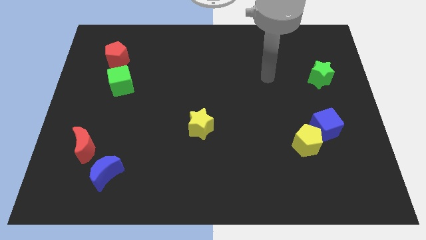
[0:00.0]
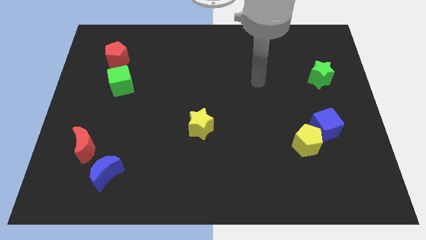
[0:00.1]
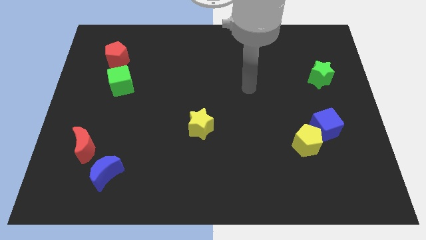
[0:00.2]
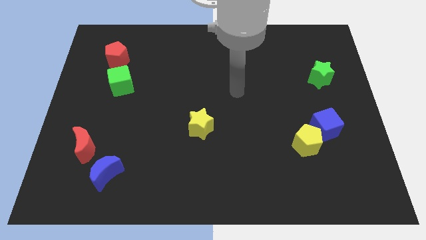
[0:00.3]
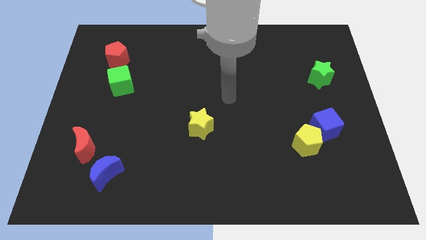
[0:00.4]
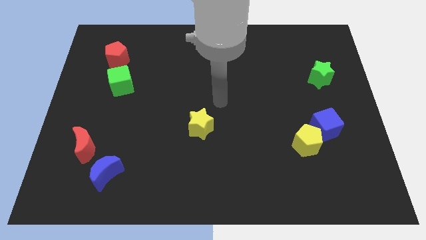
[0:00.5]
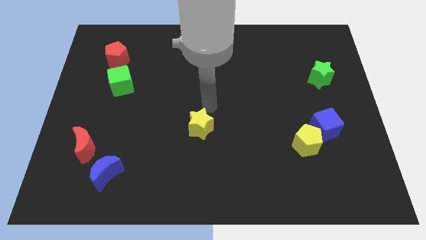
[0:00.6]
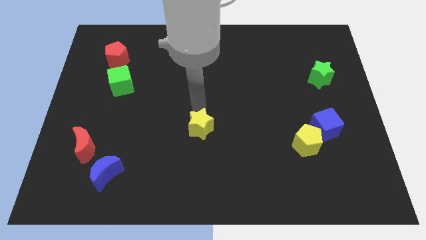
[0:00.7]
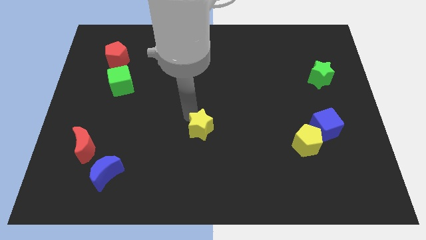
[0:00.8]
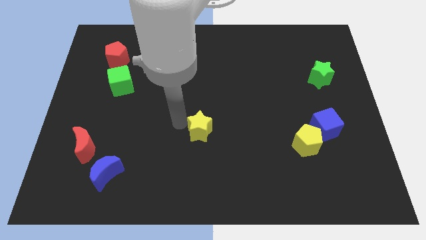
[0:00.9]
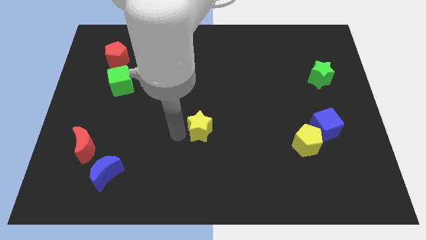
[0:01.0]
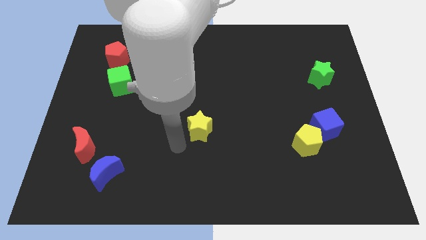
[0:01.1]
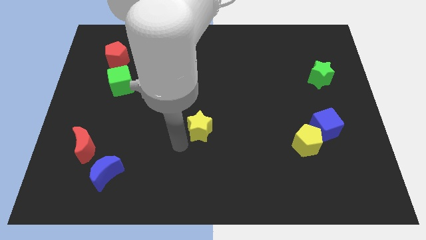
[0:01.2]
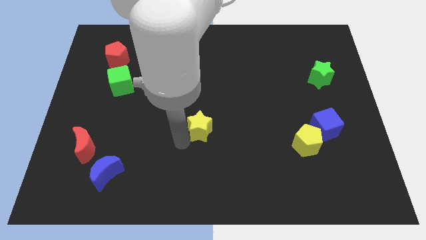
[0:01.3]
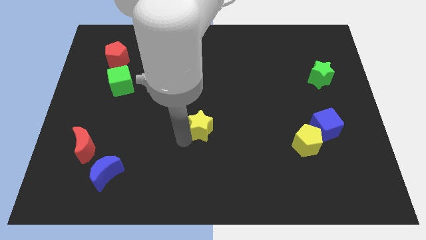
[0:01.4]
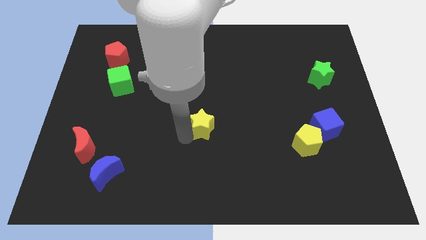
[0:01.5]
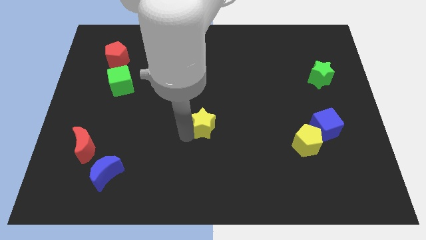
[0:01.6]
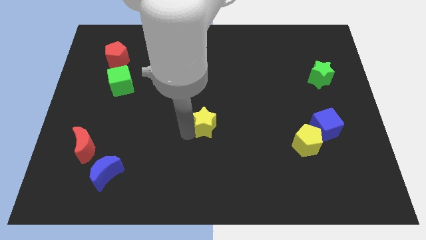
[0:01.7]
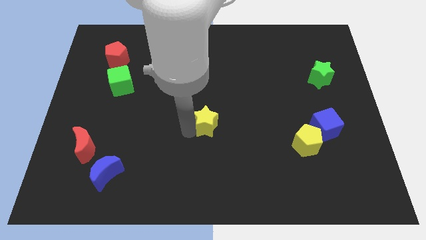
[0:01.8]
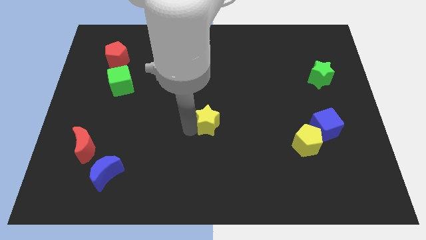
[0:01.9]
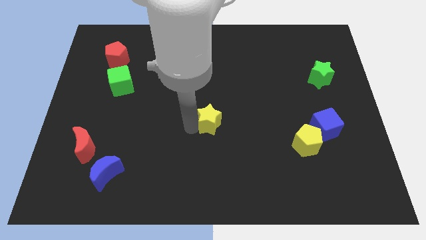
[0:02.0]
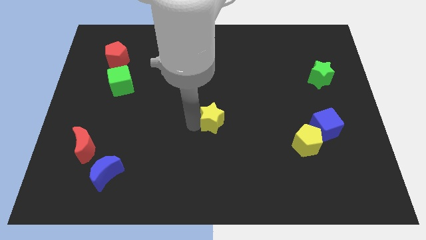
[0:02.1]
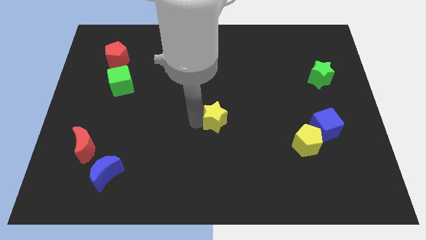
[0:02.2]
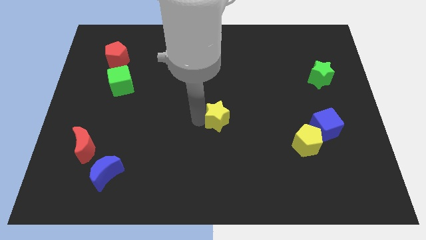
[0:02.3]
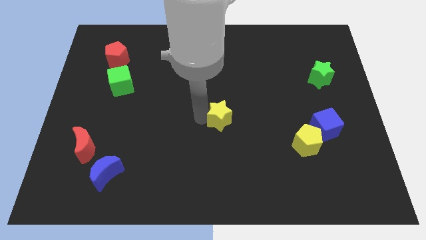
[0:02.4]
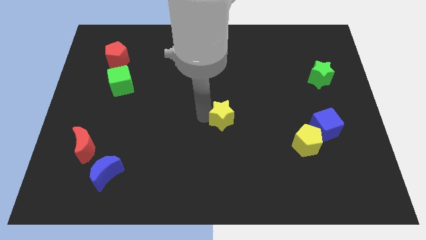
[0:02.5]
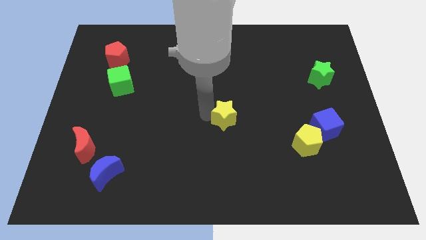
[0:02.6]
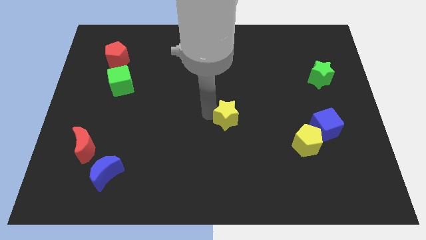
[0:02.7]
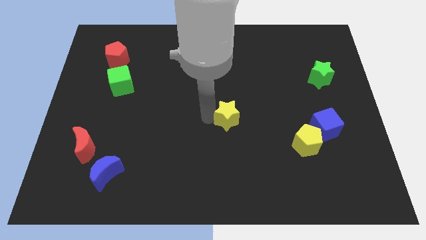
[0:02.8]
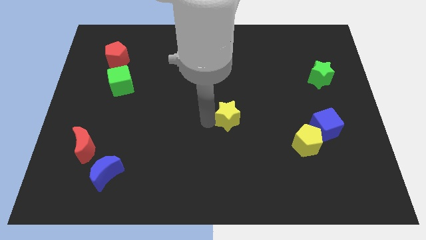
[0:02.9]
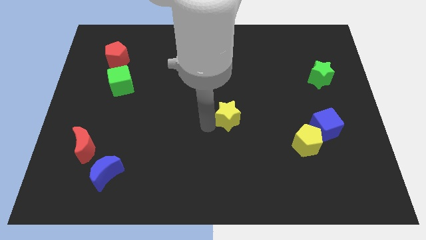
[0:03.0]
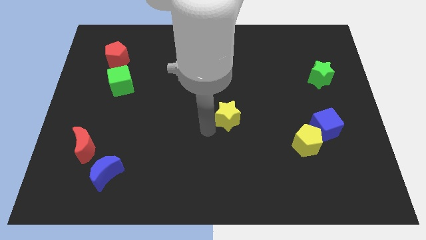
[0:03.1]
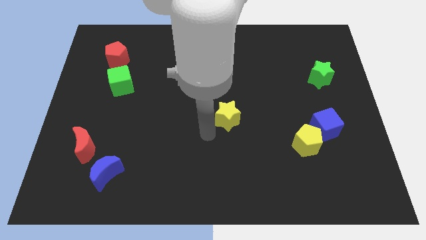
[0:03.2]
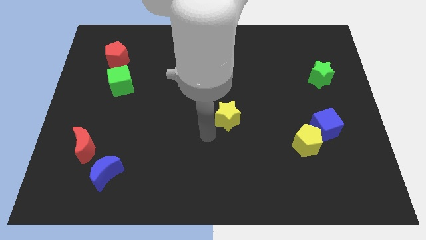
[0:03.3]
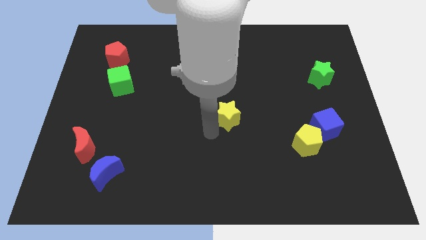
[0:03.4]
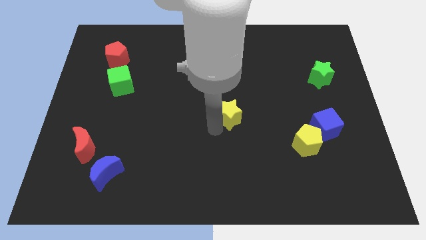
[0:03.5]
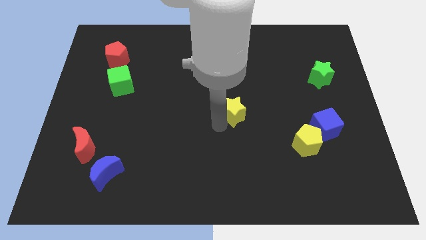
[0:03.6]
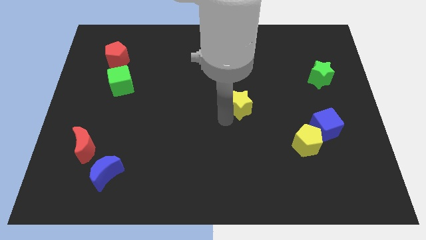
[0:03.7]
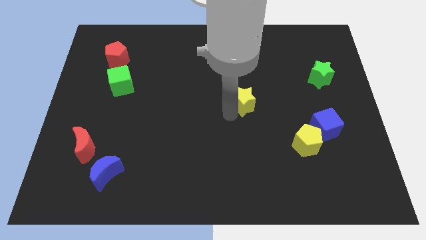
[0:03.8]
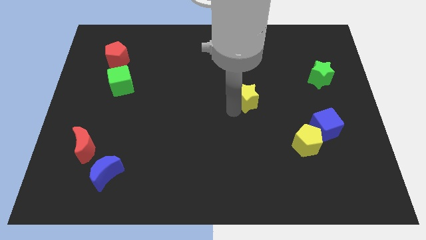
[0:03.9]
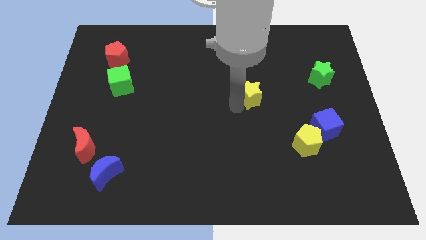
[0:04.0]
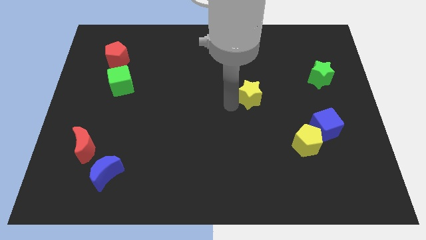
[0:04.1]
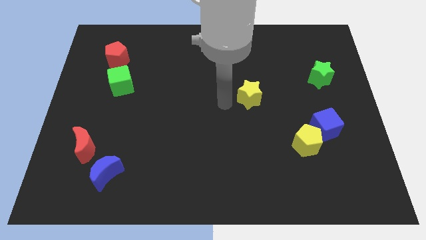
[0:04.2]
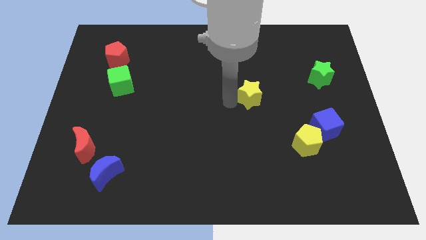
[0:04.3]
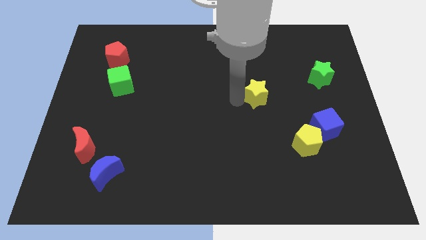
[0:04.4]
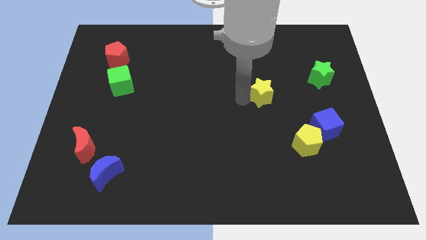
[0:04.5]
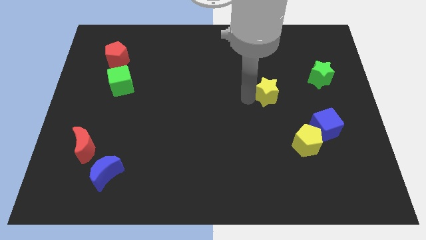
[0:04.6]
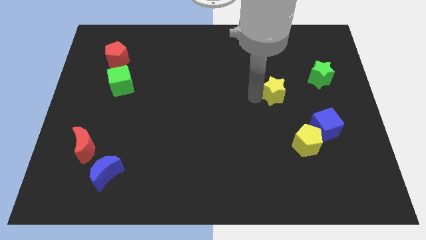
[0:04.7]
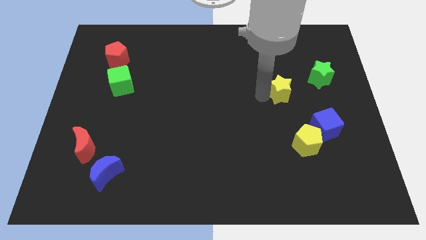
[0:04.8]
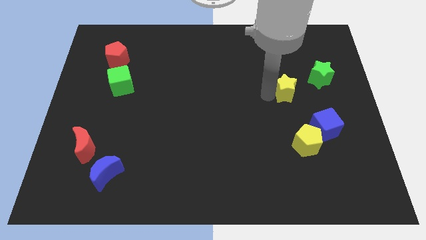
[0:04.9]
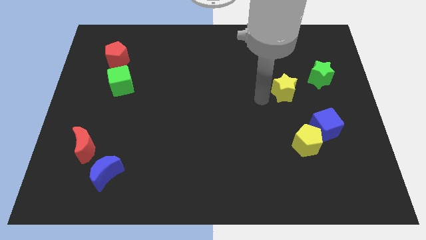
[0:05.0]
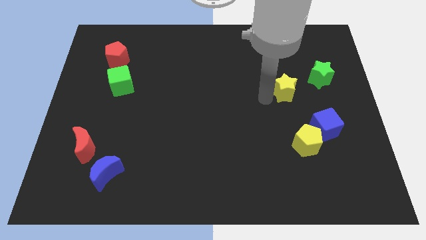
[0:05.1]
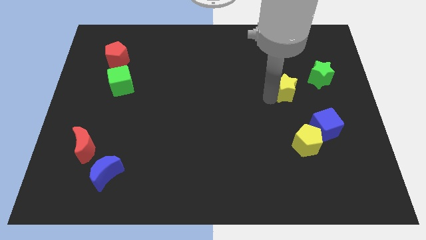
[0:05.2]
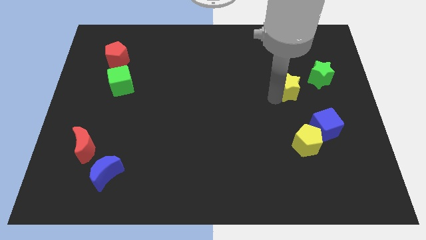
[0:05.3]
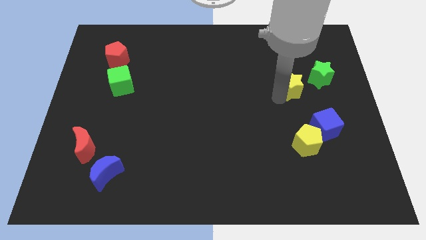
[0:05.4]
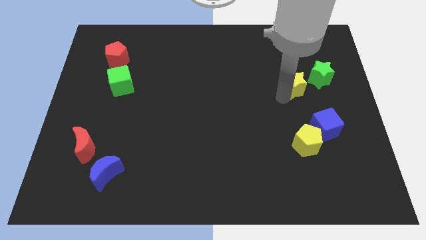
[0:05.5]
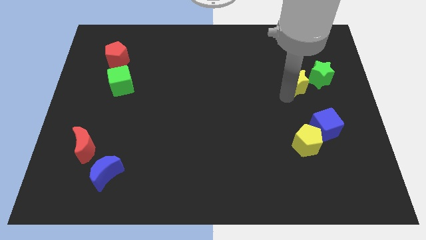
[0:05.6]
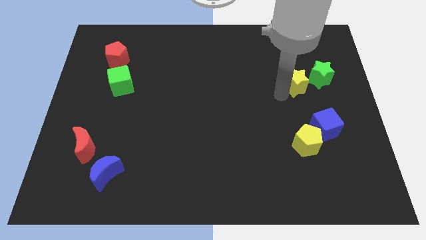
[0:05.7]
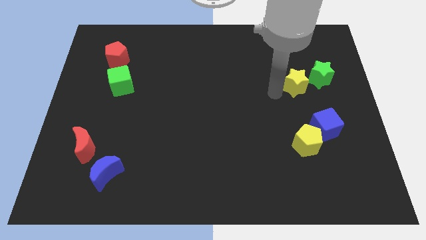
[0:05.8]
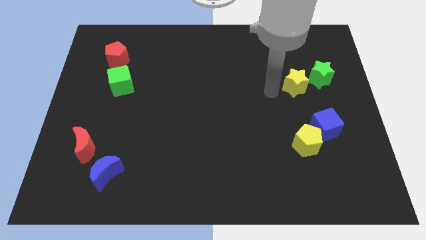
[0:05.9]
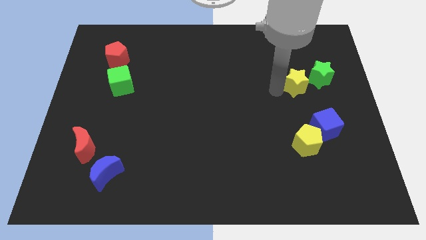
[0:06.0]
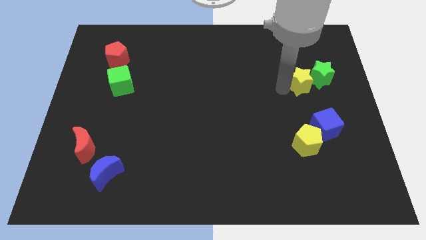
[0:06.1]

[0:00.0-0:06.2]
move the yellow star towards the green star
